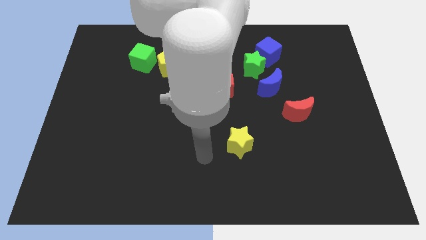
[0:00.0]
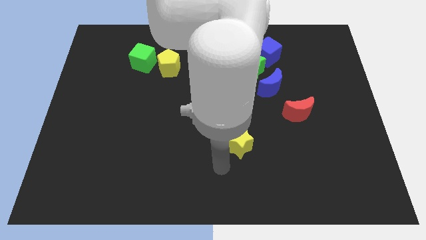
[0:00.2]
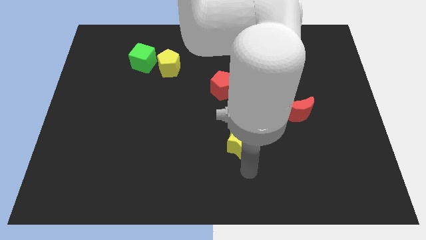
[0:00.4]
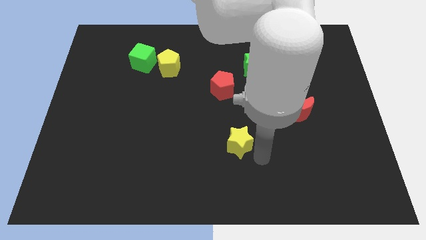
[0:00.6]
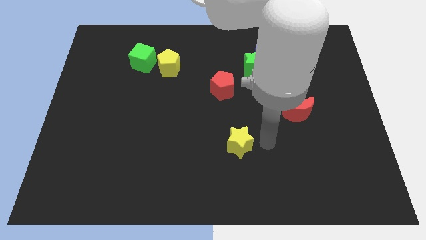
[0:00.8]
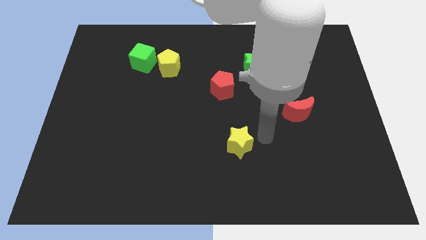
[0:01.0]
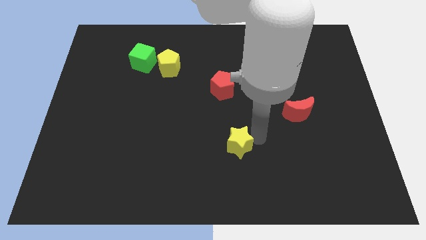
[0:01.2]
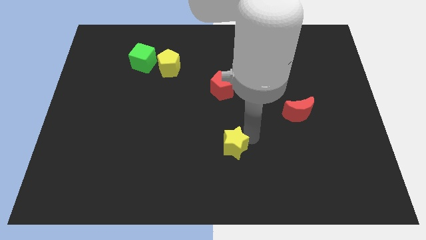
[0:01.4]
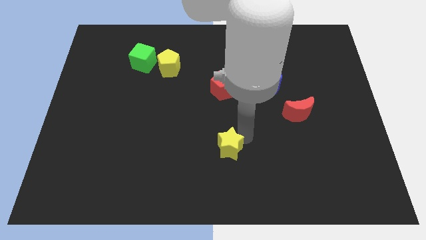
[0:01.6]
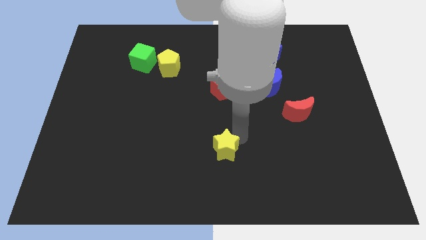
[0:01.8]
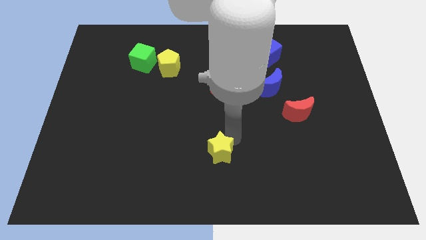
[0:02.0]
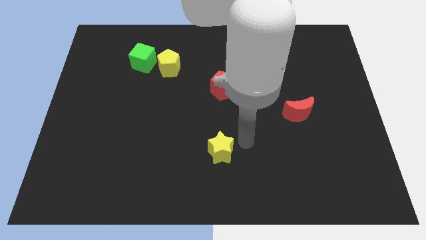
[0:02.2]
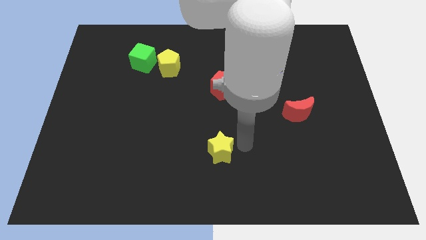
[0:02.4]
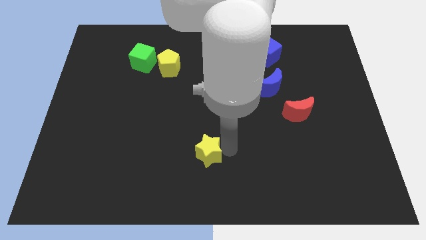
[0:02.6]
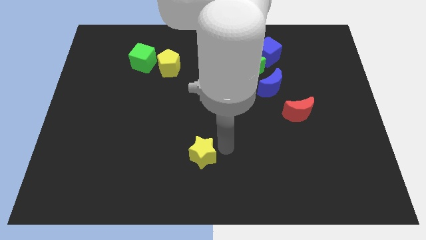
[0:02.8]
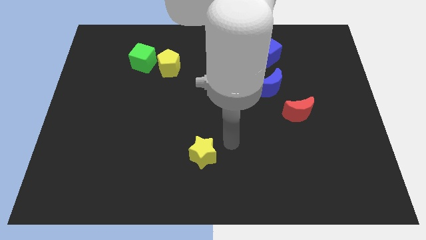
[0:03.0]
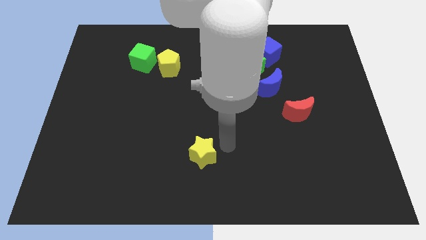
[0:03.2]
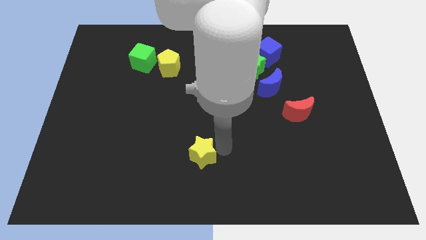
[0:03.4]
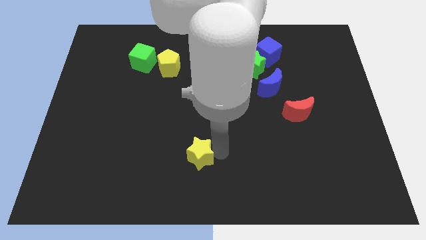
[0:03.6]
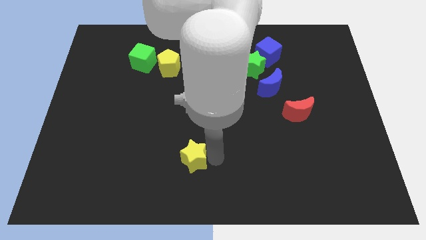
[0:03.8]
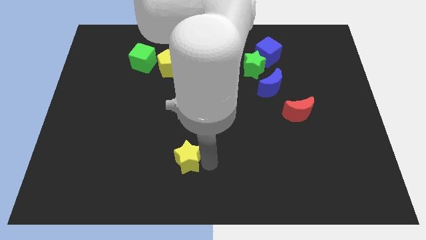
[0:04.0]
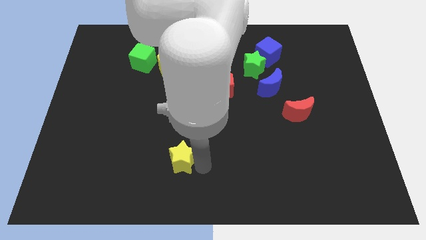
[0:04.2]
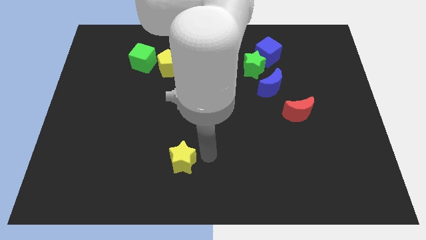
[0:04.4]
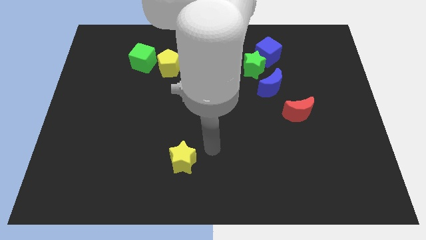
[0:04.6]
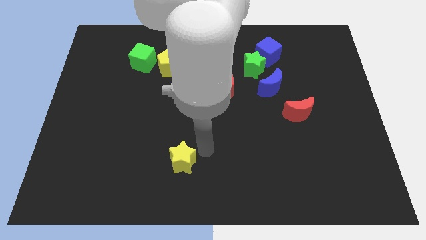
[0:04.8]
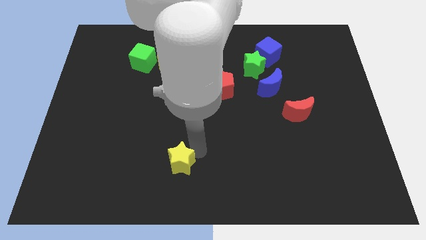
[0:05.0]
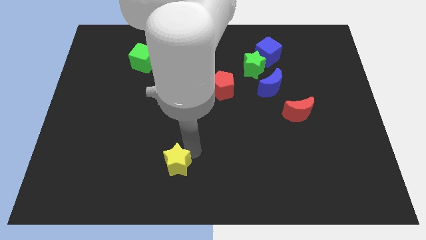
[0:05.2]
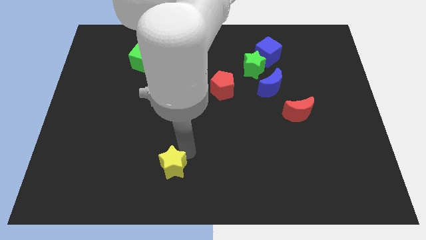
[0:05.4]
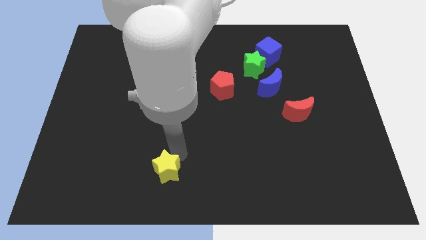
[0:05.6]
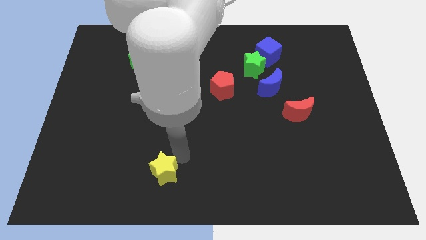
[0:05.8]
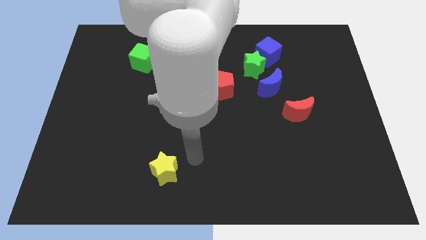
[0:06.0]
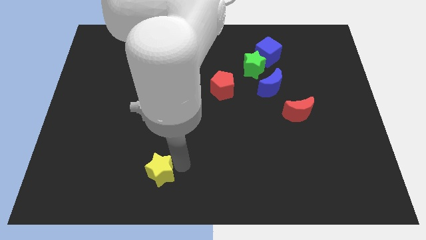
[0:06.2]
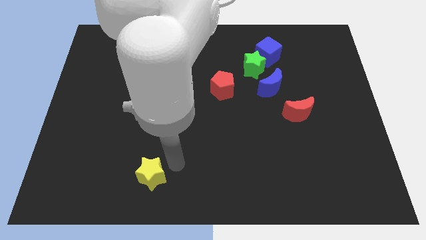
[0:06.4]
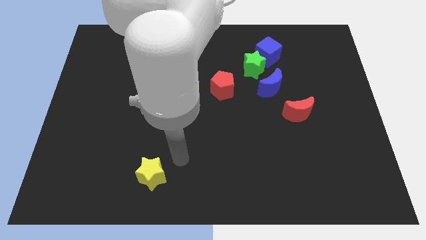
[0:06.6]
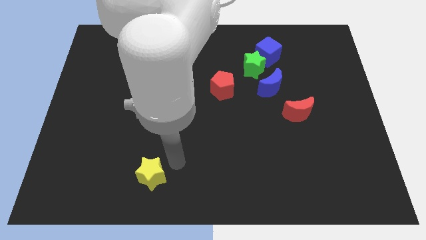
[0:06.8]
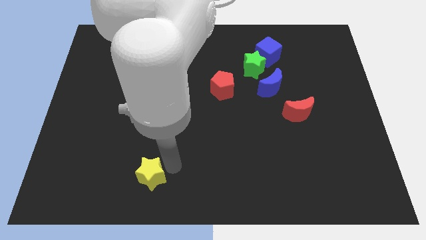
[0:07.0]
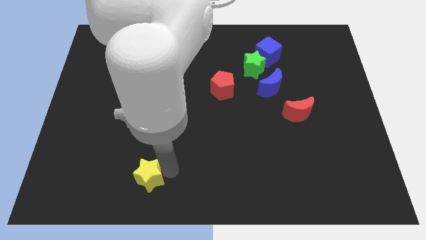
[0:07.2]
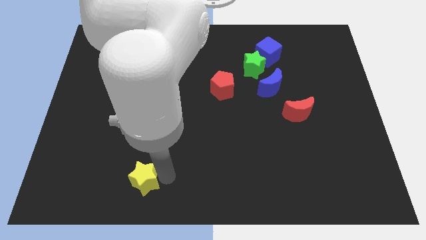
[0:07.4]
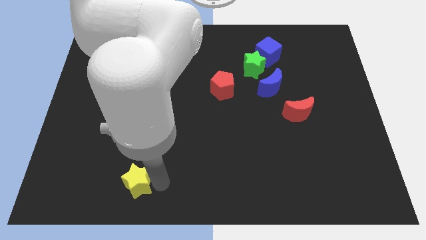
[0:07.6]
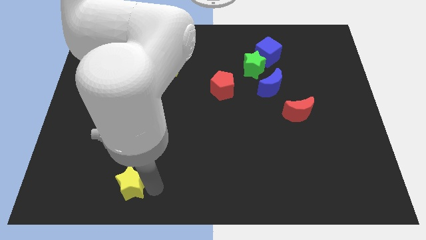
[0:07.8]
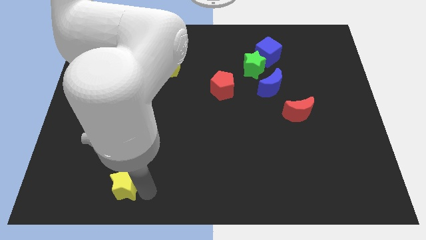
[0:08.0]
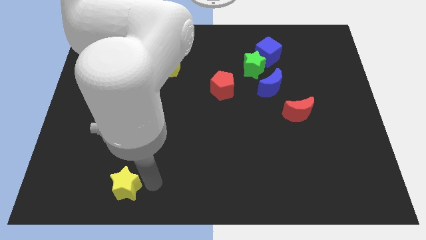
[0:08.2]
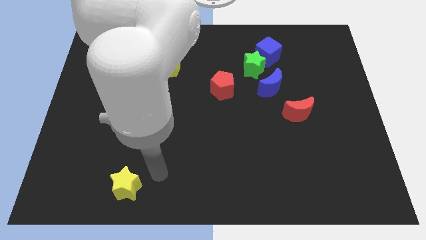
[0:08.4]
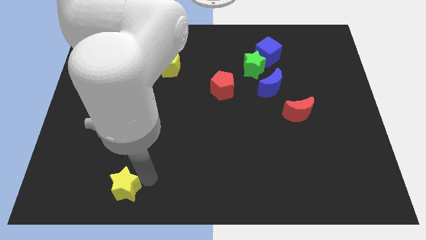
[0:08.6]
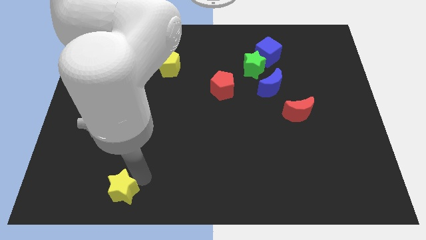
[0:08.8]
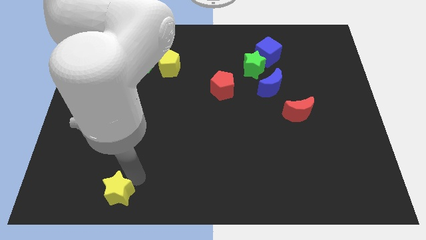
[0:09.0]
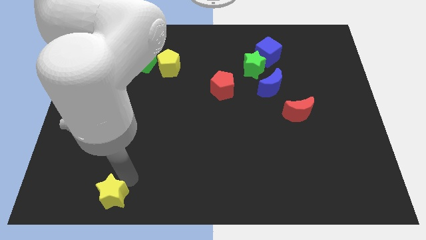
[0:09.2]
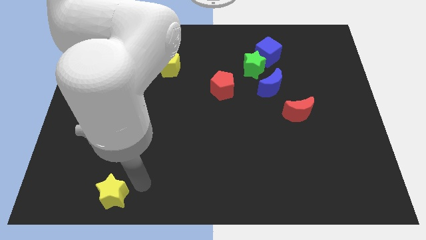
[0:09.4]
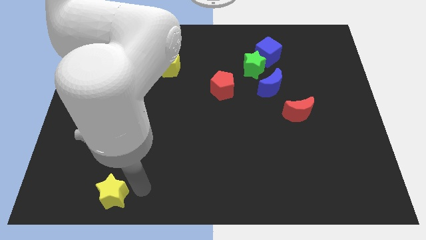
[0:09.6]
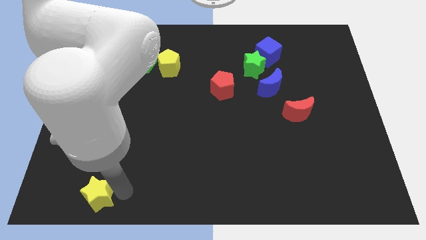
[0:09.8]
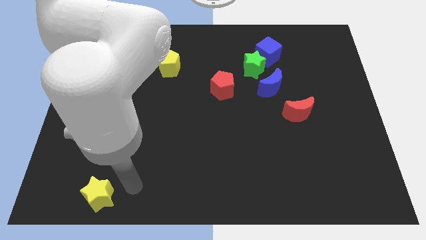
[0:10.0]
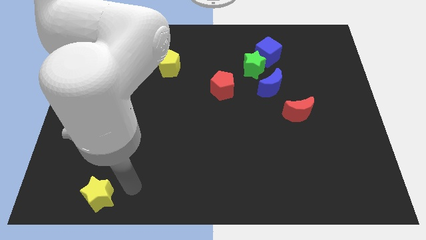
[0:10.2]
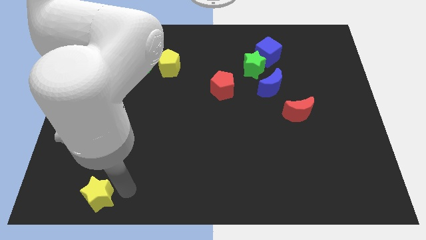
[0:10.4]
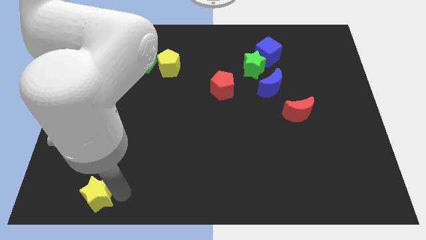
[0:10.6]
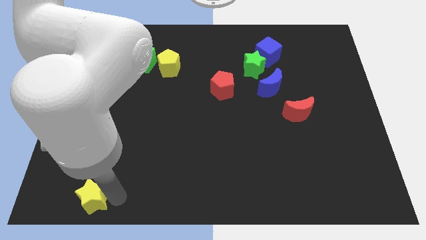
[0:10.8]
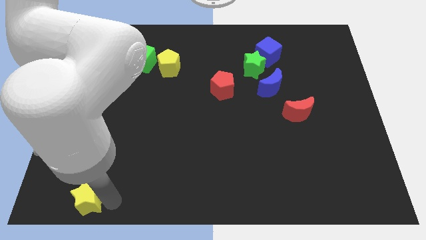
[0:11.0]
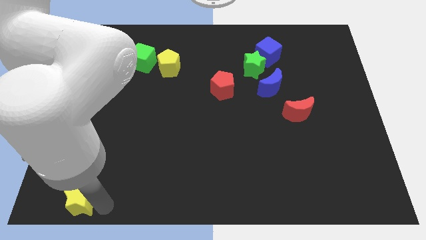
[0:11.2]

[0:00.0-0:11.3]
move the yellow star to the bottom left of the board

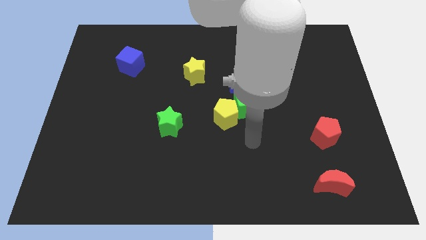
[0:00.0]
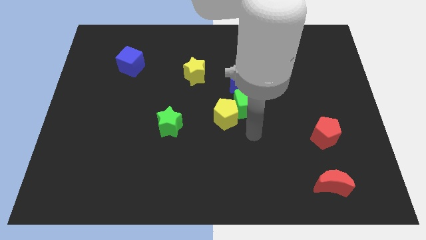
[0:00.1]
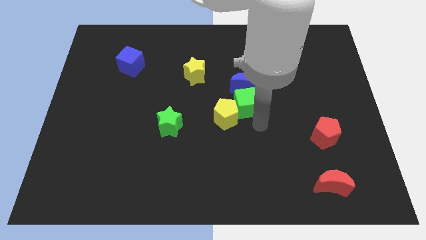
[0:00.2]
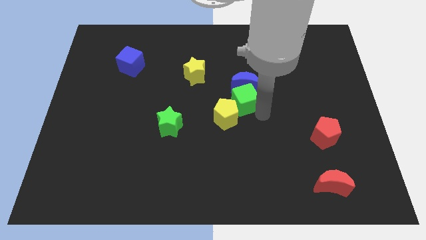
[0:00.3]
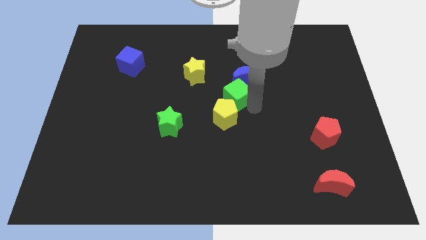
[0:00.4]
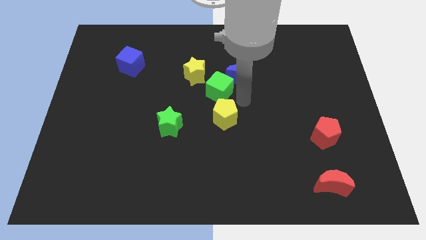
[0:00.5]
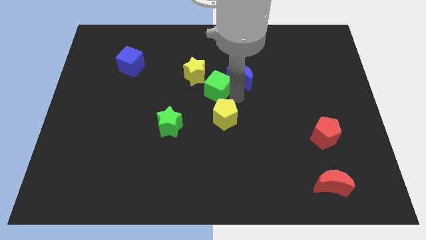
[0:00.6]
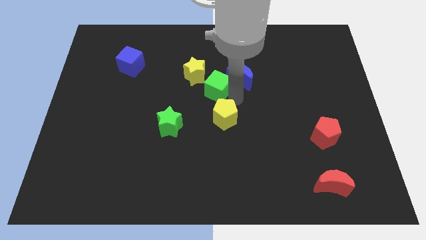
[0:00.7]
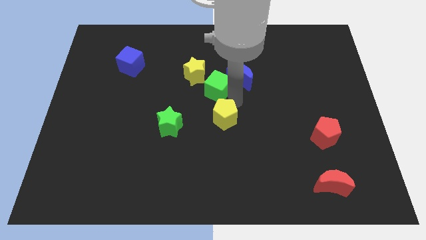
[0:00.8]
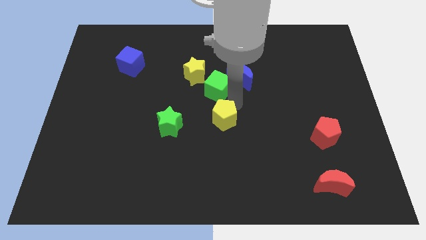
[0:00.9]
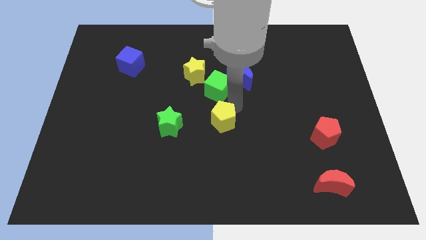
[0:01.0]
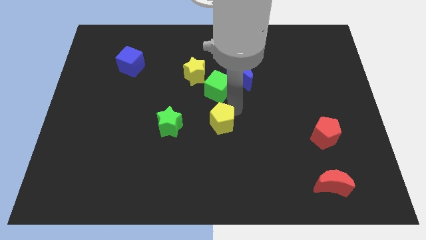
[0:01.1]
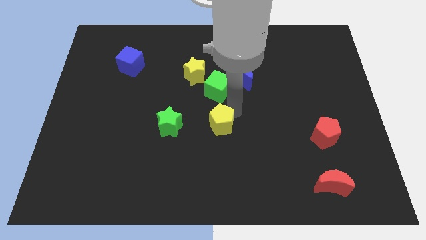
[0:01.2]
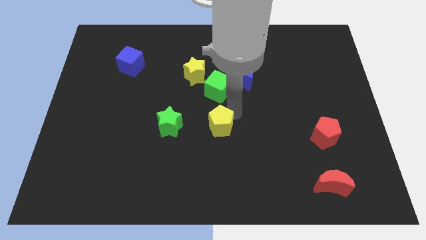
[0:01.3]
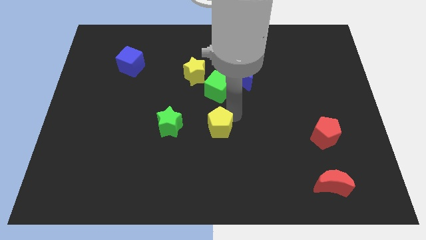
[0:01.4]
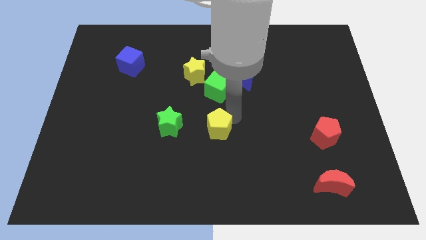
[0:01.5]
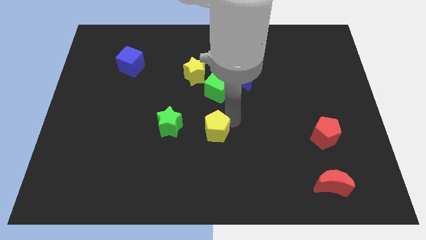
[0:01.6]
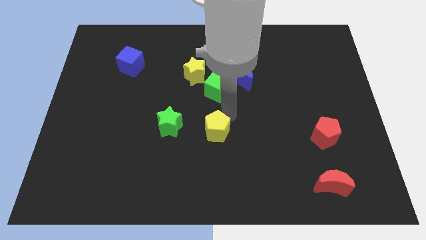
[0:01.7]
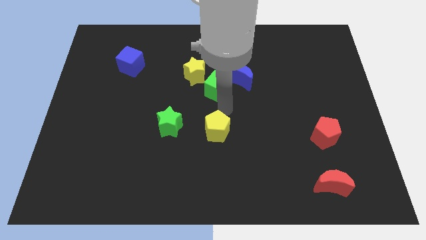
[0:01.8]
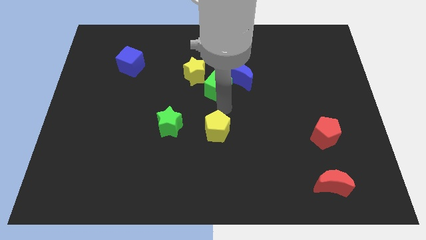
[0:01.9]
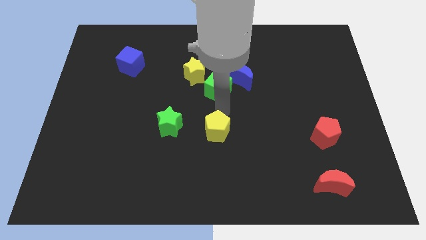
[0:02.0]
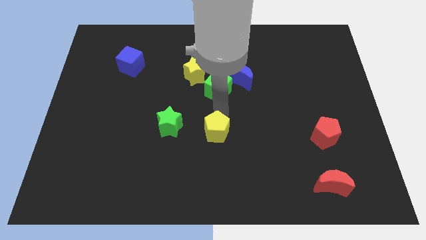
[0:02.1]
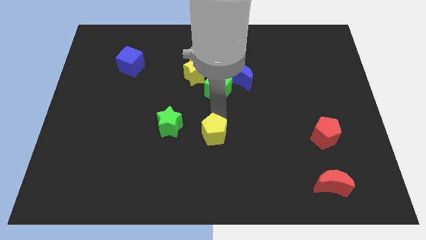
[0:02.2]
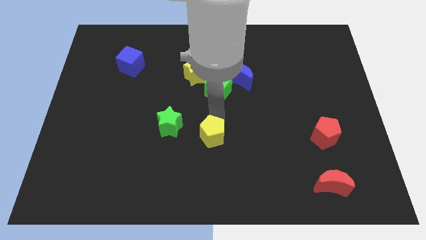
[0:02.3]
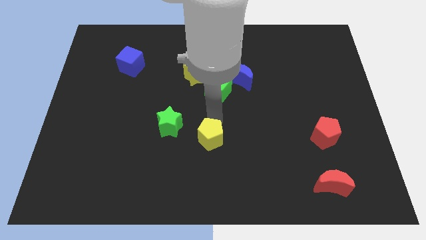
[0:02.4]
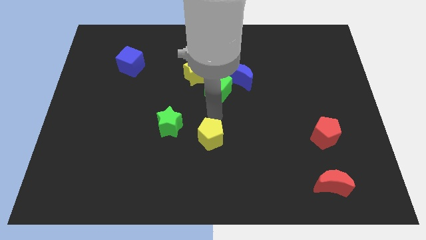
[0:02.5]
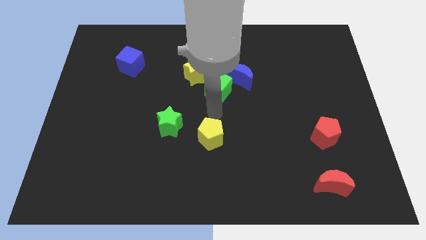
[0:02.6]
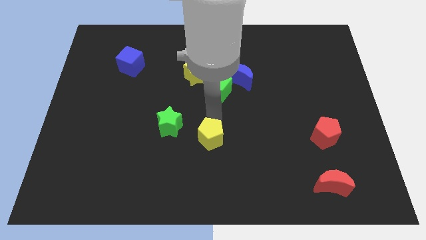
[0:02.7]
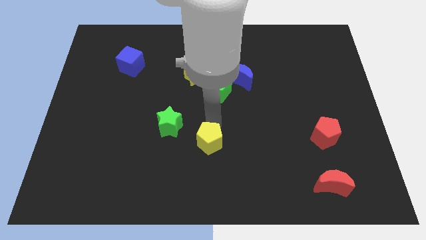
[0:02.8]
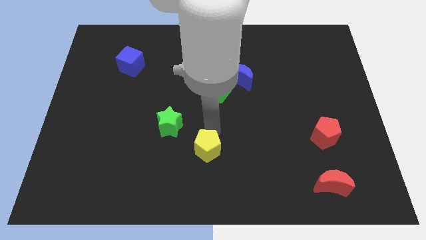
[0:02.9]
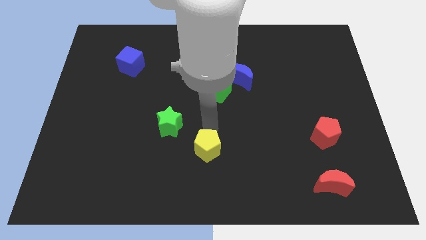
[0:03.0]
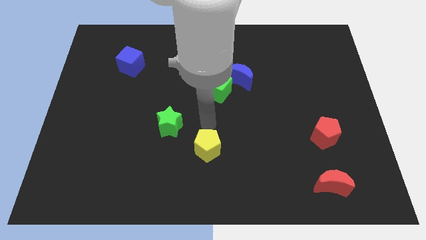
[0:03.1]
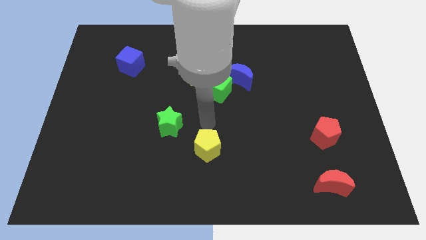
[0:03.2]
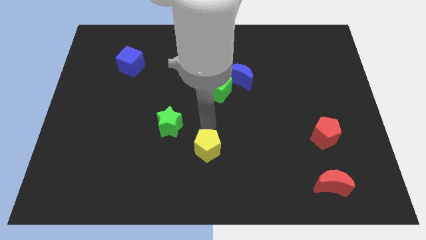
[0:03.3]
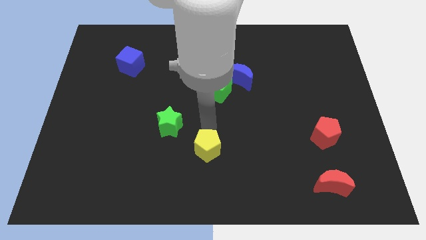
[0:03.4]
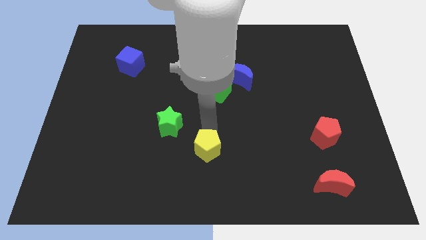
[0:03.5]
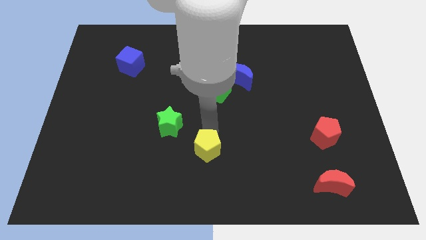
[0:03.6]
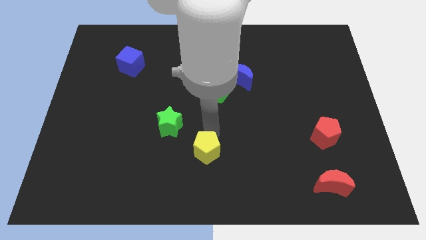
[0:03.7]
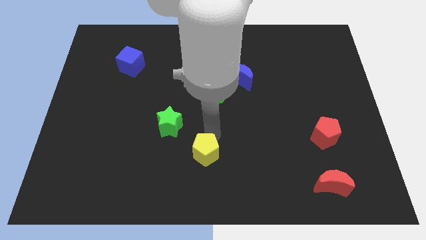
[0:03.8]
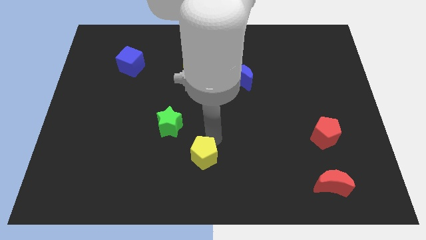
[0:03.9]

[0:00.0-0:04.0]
slide the yellow pentagon to the bottom side
